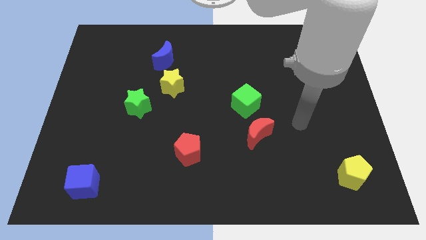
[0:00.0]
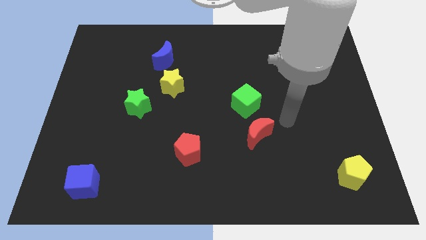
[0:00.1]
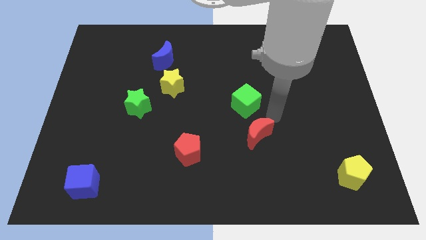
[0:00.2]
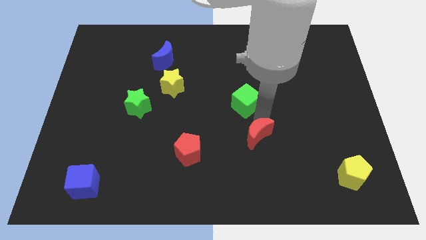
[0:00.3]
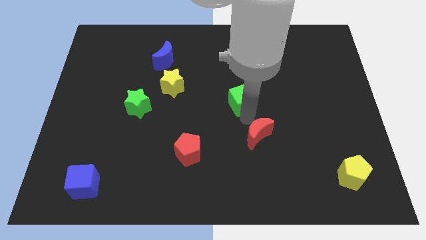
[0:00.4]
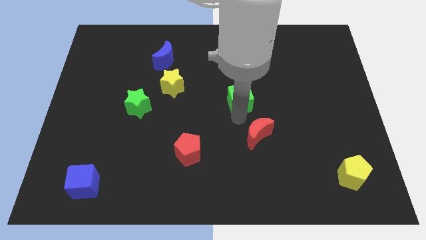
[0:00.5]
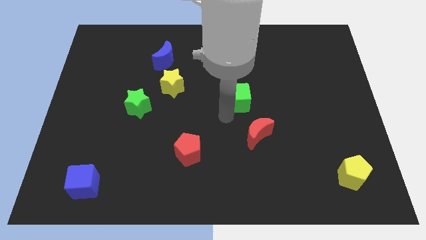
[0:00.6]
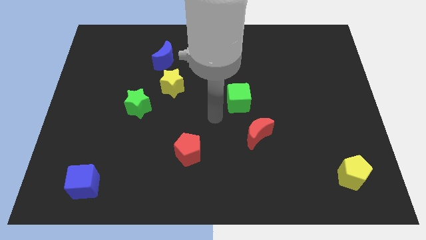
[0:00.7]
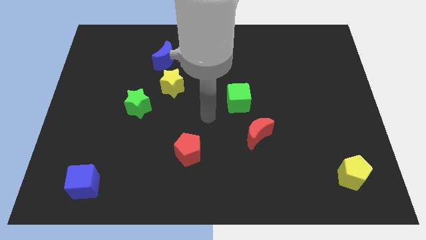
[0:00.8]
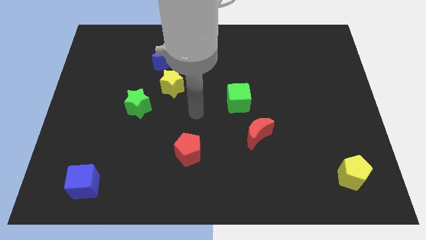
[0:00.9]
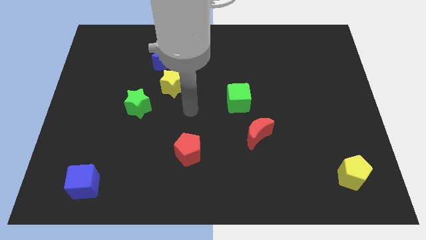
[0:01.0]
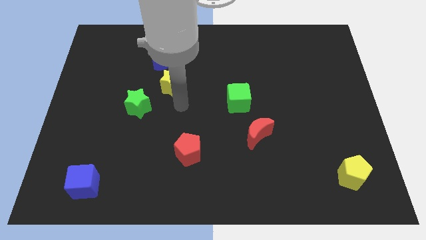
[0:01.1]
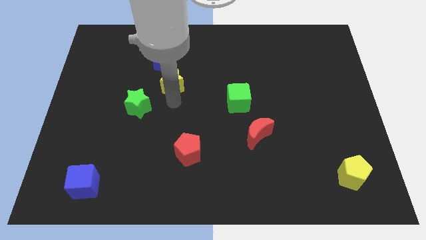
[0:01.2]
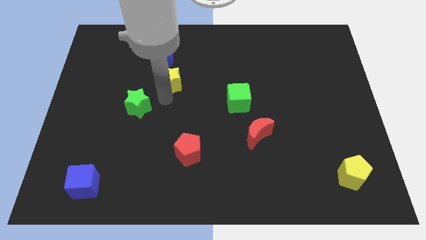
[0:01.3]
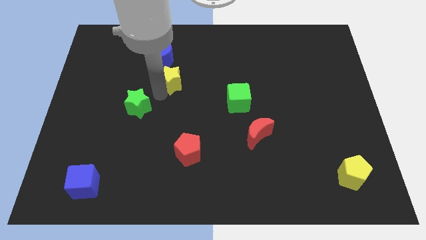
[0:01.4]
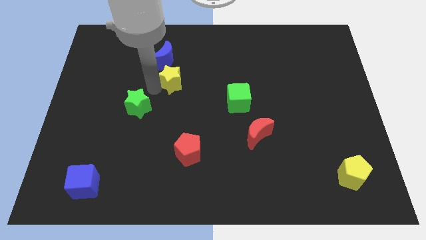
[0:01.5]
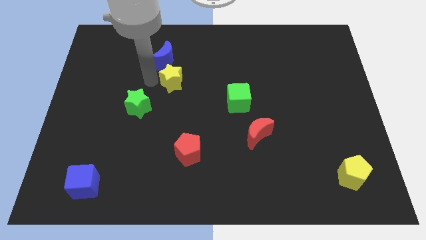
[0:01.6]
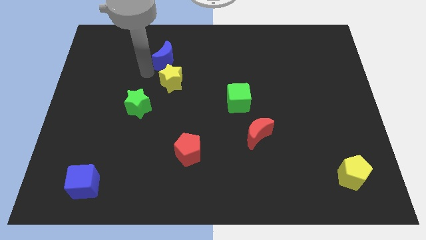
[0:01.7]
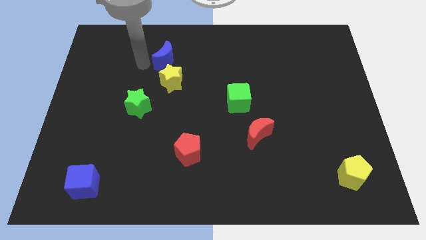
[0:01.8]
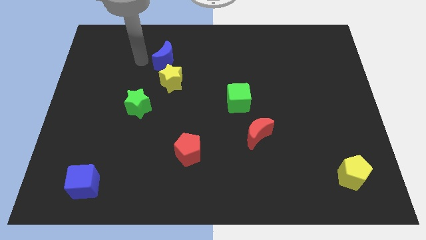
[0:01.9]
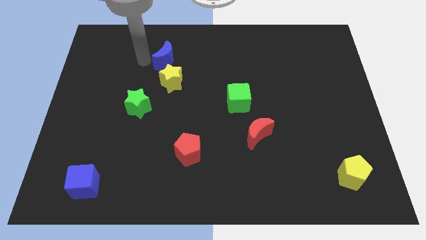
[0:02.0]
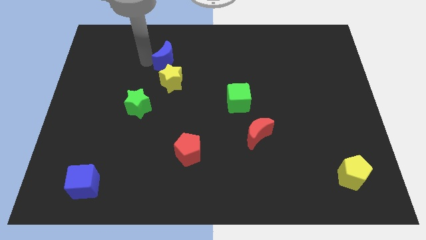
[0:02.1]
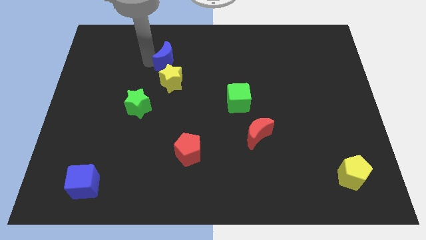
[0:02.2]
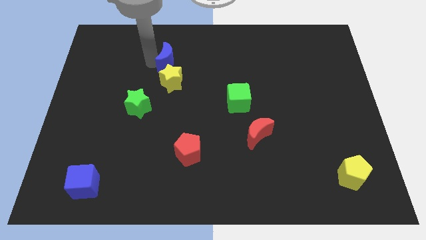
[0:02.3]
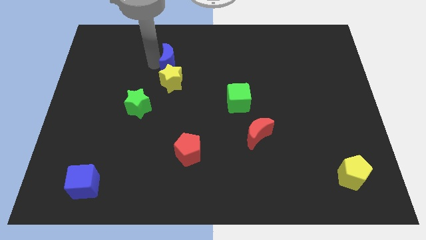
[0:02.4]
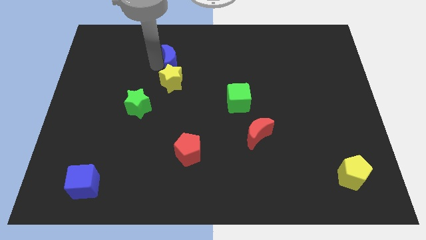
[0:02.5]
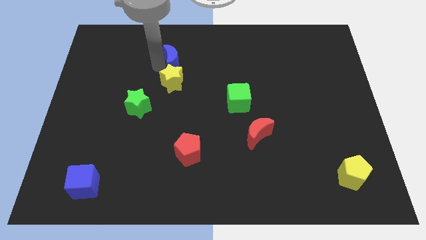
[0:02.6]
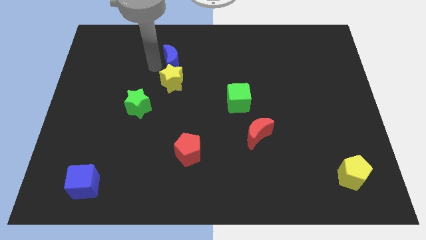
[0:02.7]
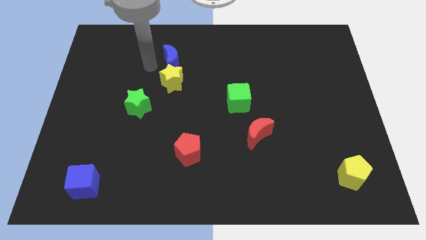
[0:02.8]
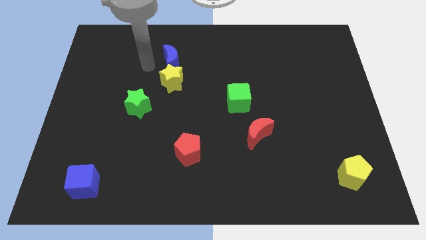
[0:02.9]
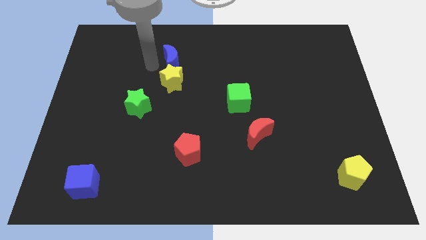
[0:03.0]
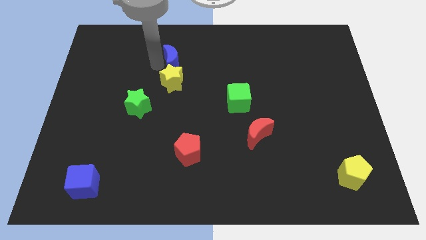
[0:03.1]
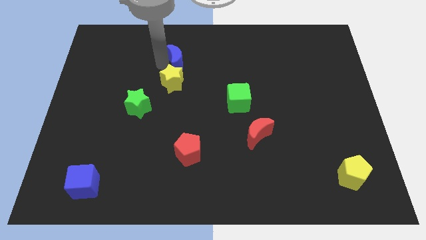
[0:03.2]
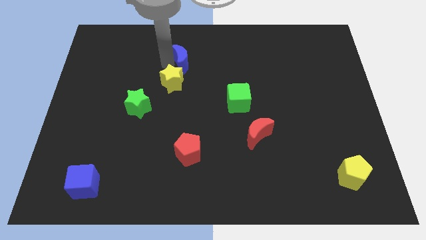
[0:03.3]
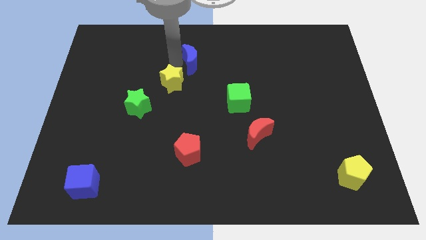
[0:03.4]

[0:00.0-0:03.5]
move the blue moon right somewhat

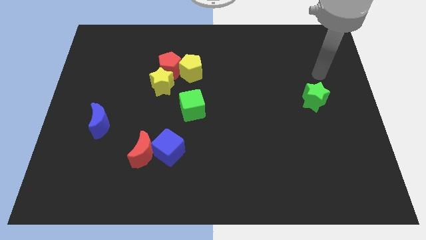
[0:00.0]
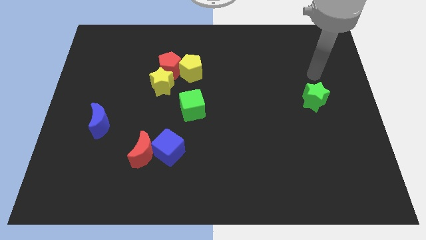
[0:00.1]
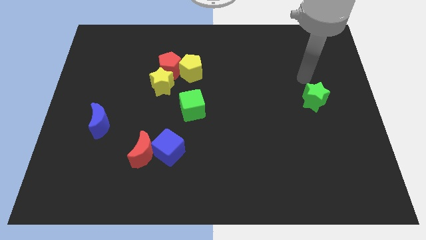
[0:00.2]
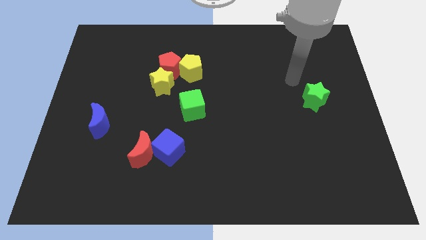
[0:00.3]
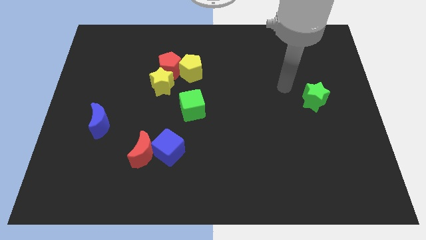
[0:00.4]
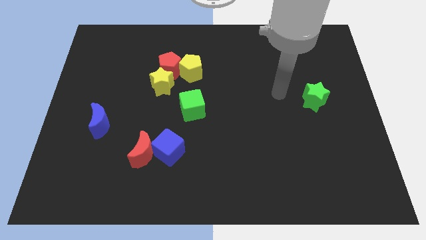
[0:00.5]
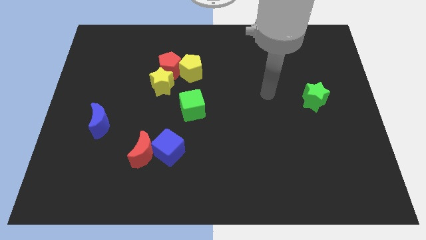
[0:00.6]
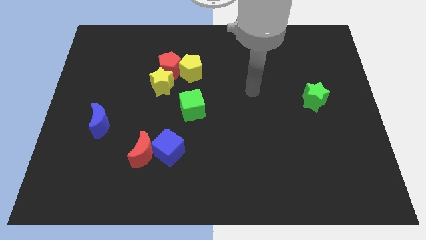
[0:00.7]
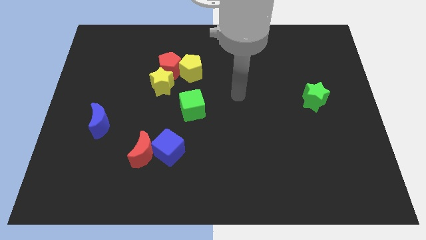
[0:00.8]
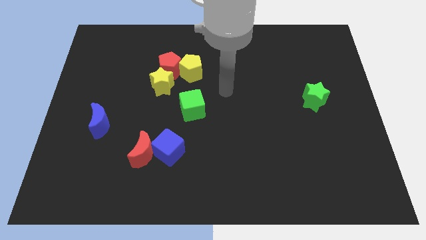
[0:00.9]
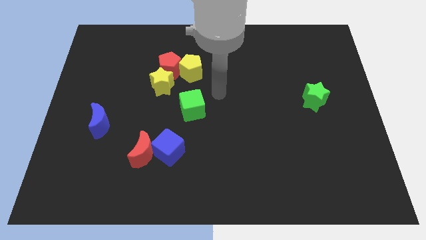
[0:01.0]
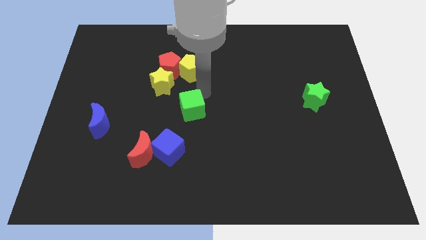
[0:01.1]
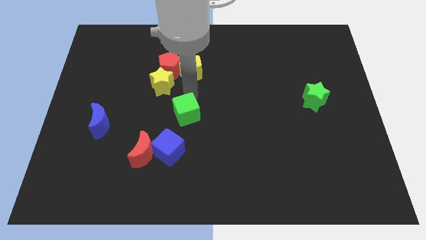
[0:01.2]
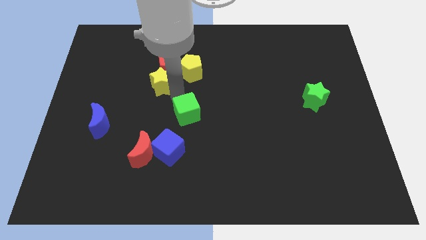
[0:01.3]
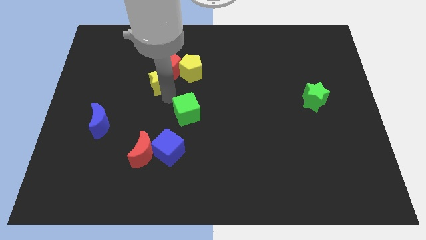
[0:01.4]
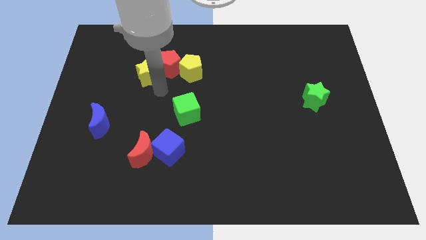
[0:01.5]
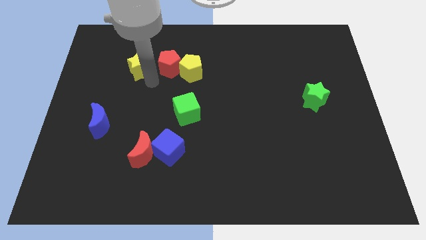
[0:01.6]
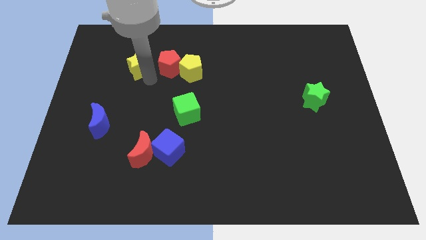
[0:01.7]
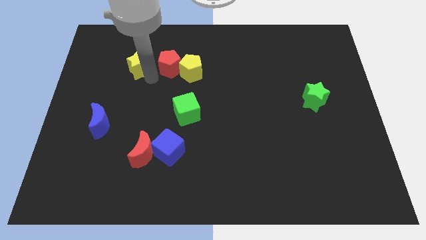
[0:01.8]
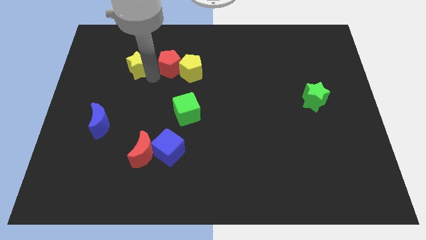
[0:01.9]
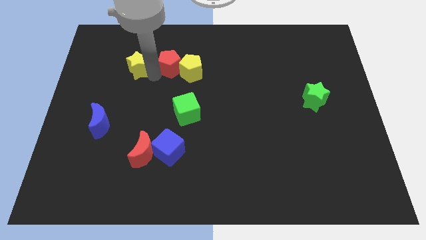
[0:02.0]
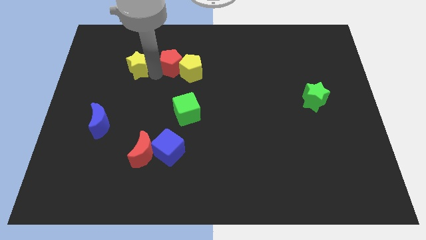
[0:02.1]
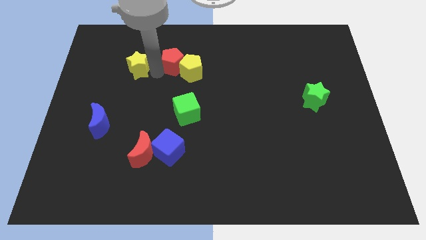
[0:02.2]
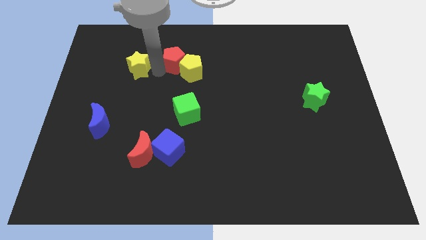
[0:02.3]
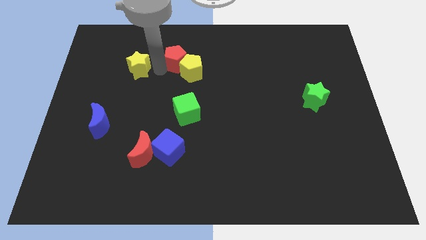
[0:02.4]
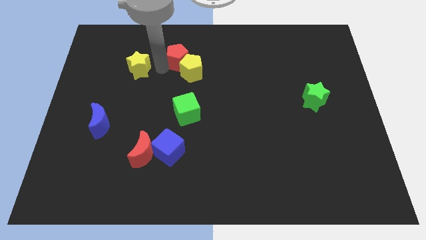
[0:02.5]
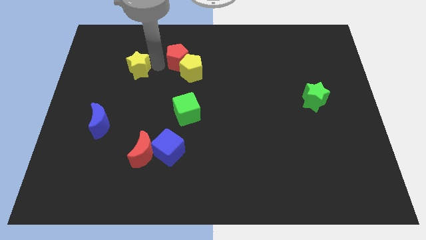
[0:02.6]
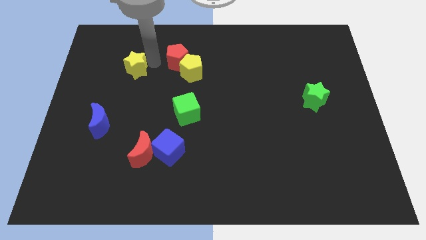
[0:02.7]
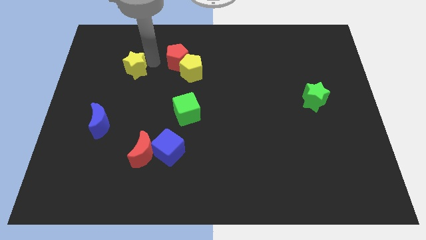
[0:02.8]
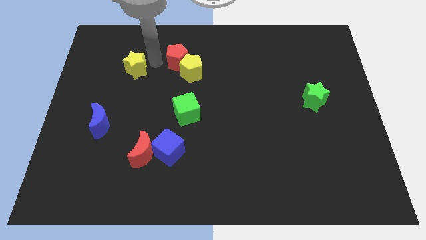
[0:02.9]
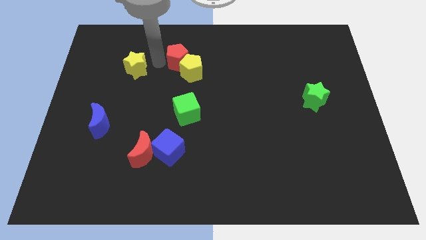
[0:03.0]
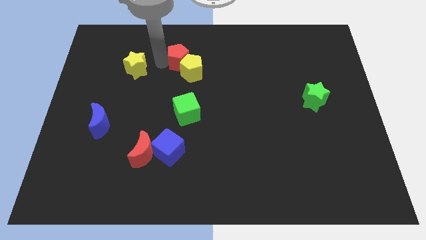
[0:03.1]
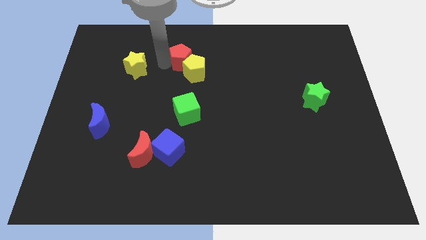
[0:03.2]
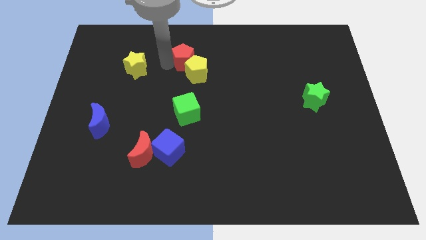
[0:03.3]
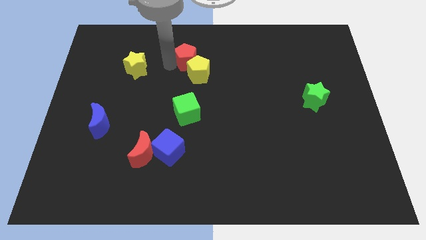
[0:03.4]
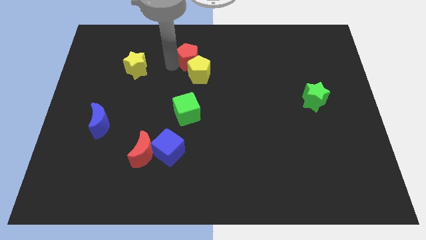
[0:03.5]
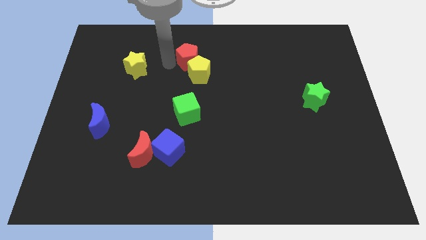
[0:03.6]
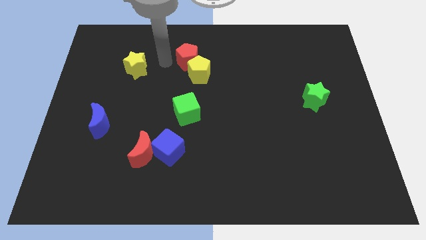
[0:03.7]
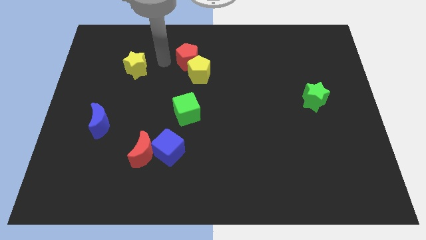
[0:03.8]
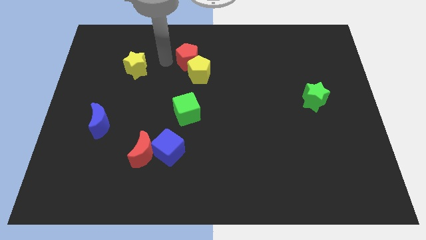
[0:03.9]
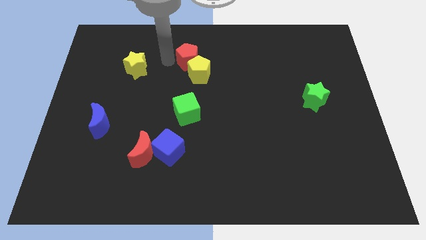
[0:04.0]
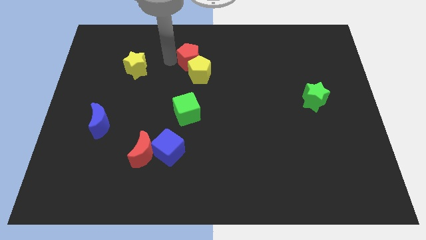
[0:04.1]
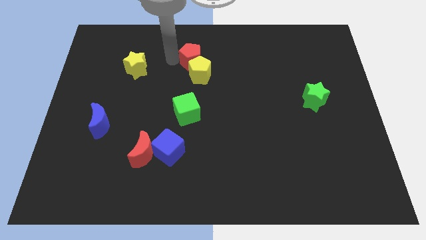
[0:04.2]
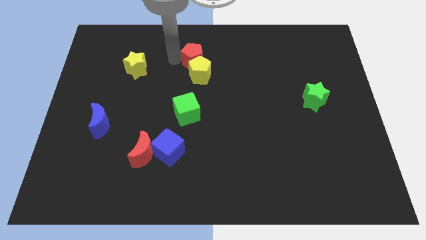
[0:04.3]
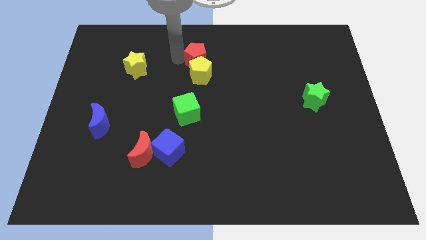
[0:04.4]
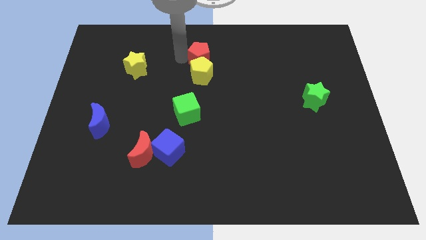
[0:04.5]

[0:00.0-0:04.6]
slightly slide the red pentagon to the right
